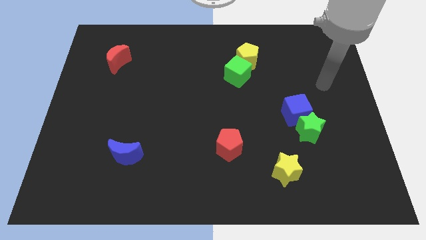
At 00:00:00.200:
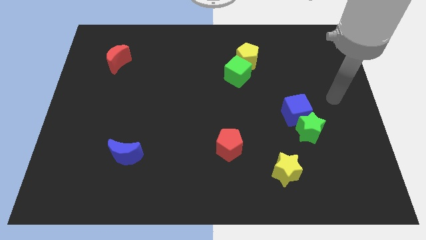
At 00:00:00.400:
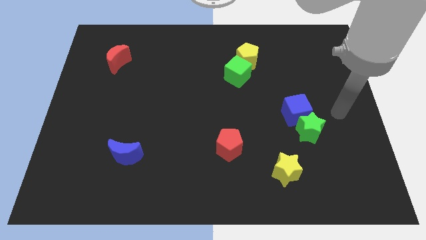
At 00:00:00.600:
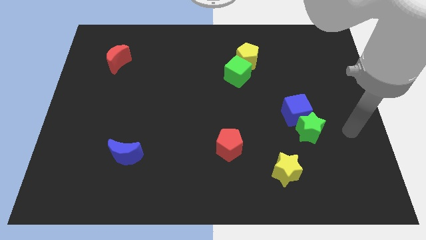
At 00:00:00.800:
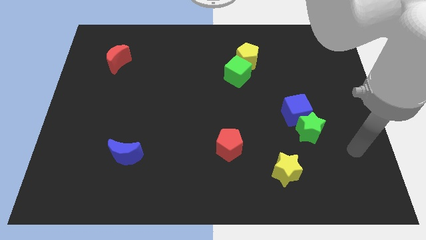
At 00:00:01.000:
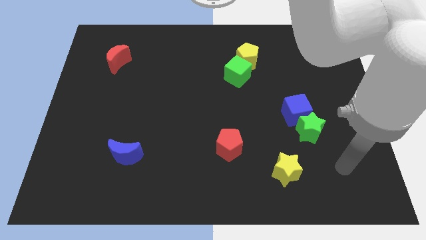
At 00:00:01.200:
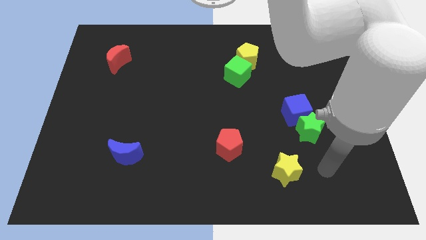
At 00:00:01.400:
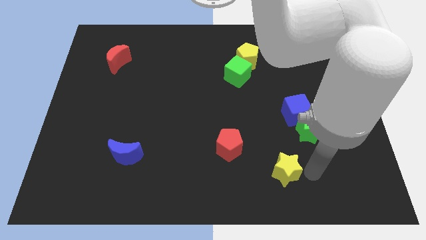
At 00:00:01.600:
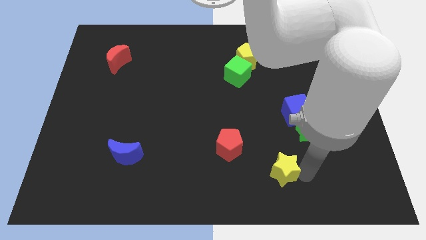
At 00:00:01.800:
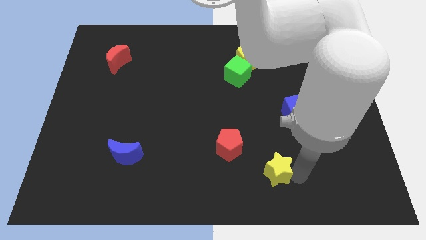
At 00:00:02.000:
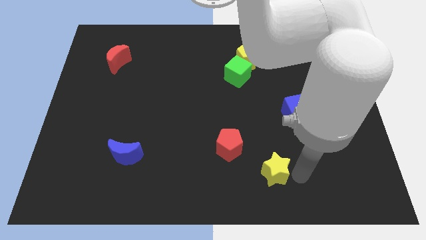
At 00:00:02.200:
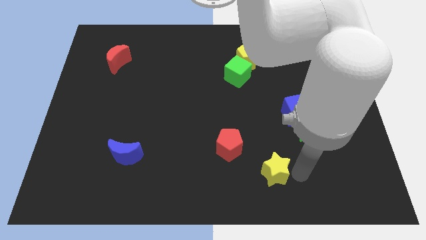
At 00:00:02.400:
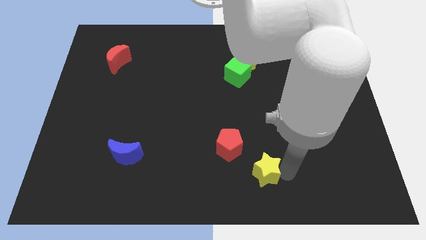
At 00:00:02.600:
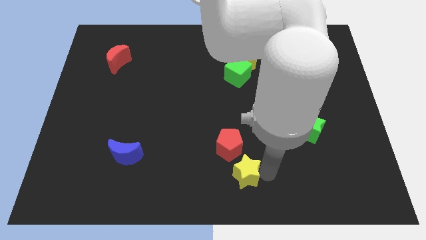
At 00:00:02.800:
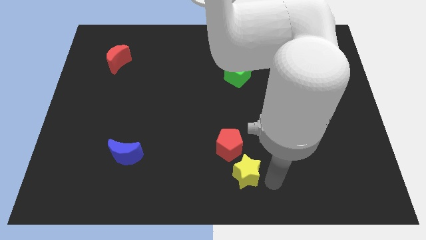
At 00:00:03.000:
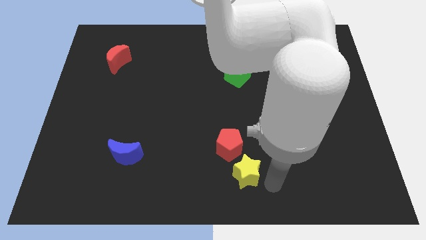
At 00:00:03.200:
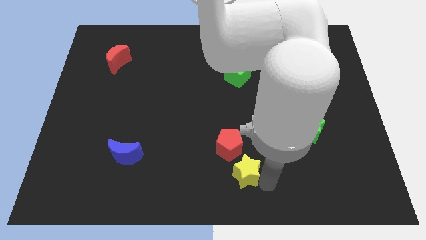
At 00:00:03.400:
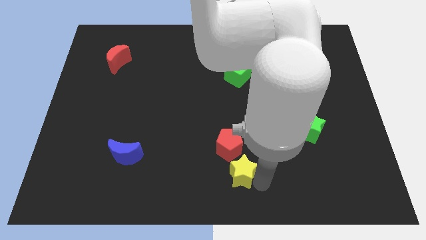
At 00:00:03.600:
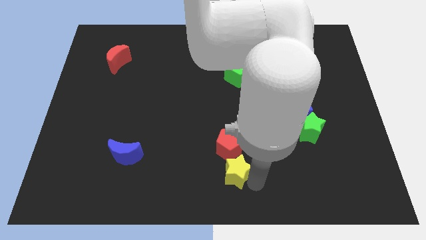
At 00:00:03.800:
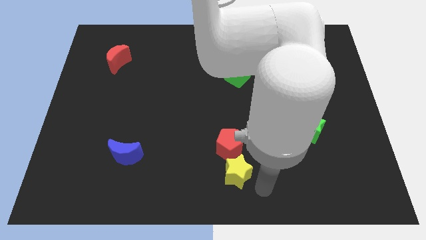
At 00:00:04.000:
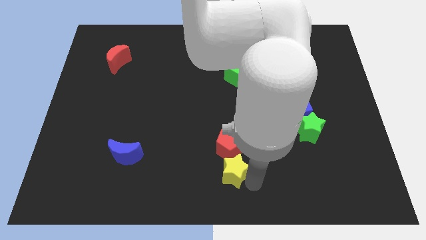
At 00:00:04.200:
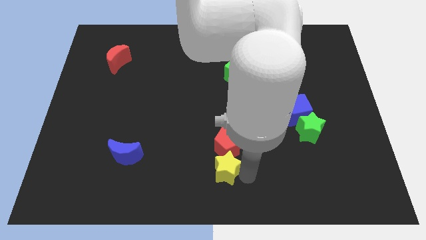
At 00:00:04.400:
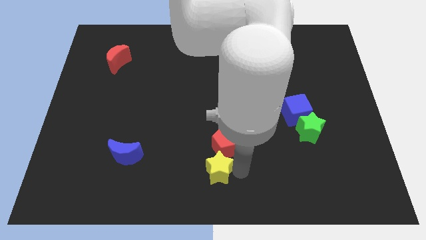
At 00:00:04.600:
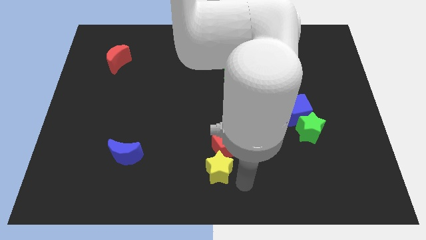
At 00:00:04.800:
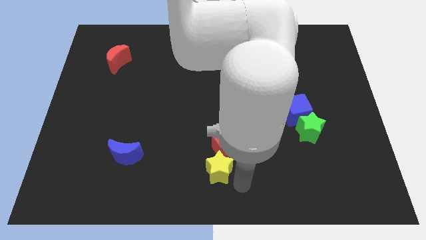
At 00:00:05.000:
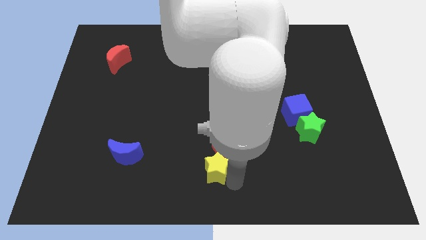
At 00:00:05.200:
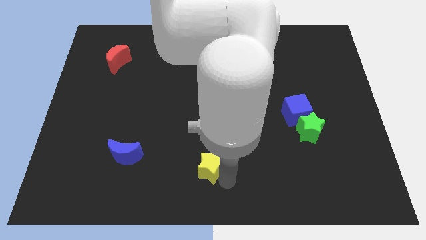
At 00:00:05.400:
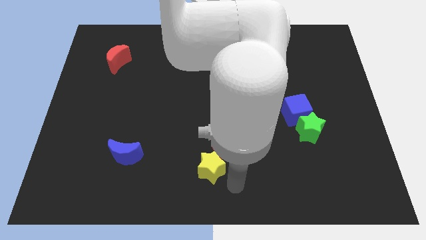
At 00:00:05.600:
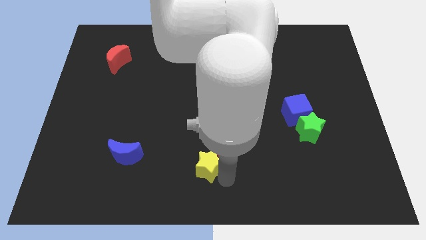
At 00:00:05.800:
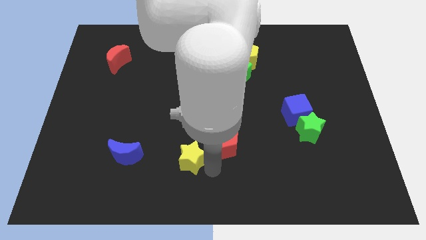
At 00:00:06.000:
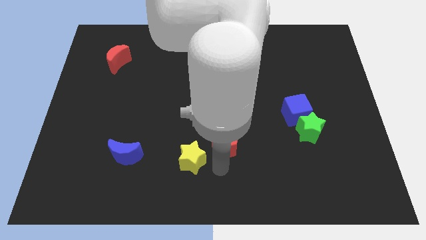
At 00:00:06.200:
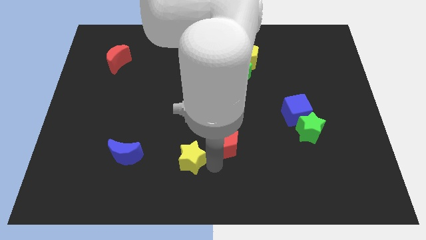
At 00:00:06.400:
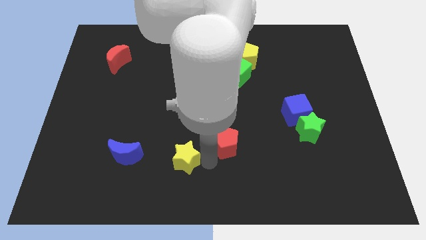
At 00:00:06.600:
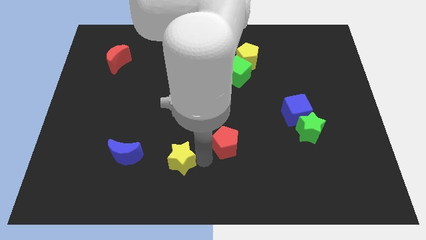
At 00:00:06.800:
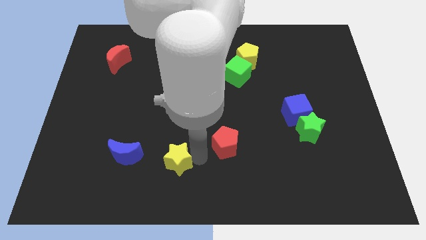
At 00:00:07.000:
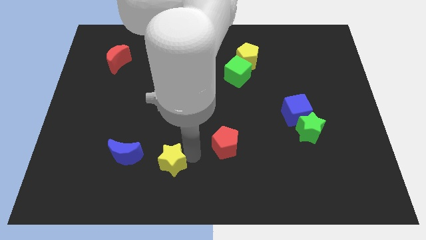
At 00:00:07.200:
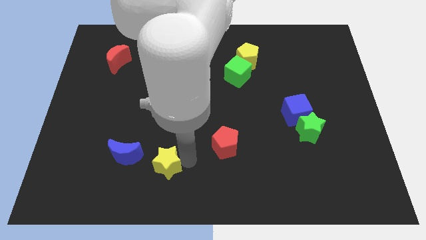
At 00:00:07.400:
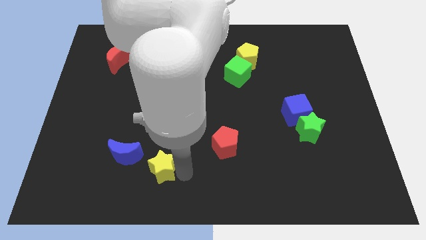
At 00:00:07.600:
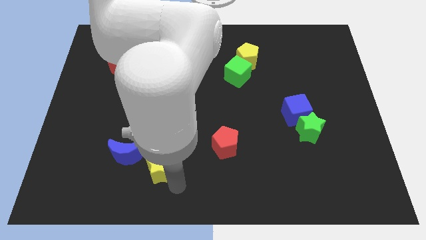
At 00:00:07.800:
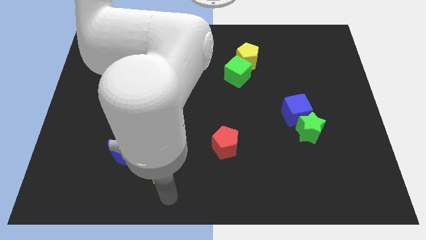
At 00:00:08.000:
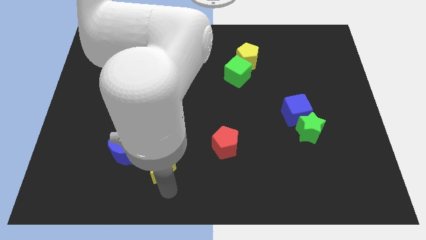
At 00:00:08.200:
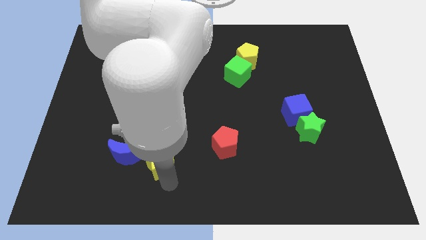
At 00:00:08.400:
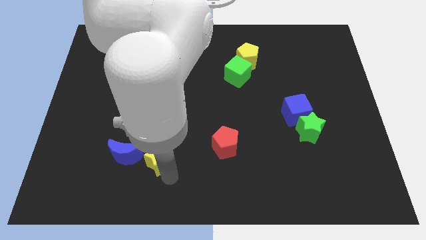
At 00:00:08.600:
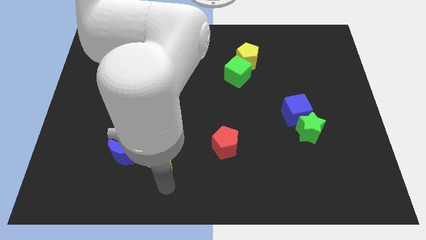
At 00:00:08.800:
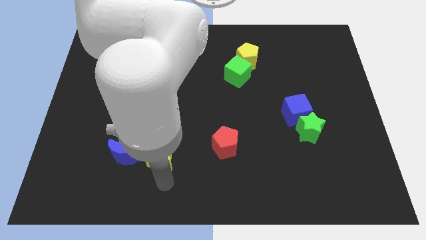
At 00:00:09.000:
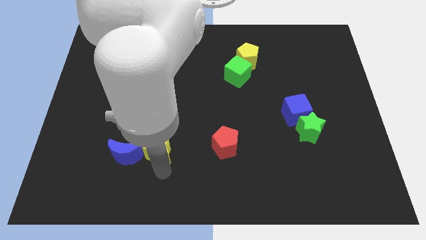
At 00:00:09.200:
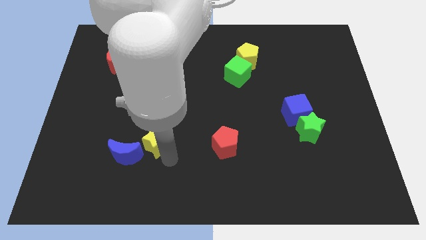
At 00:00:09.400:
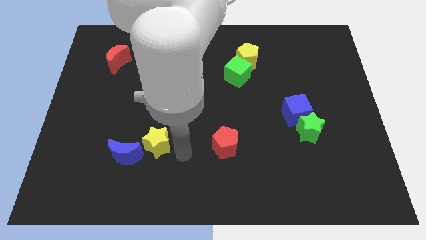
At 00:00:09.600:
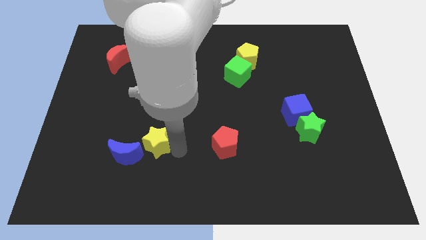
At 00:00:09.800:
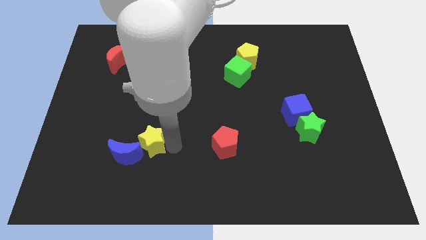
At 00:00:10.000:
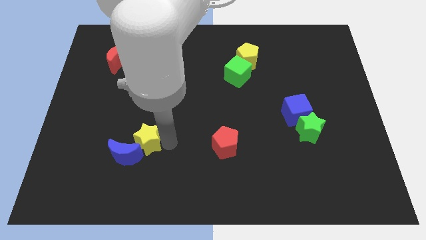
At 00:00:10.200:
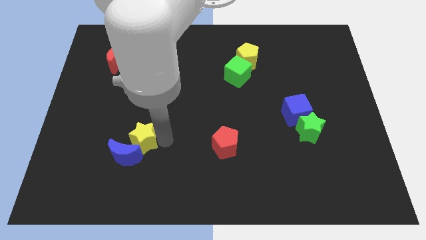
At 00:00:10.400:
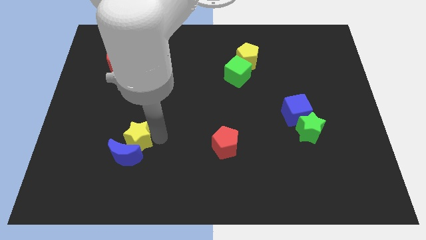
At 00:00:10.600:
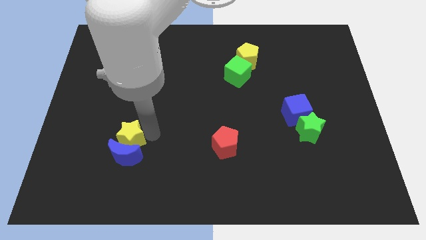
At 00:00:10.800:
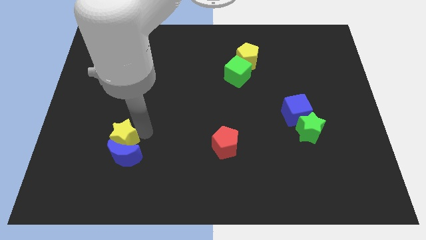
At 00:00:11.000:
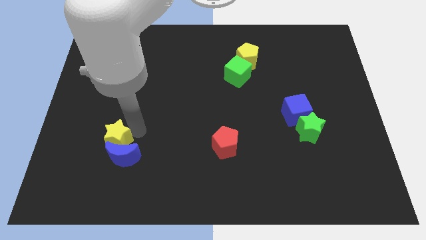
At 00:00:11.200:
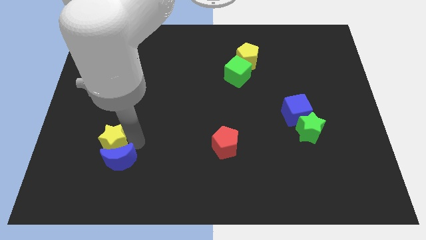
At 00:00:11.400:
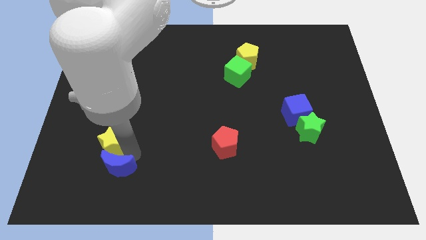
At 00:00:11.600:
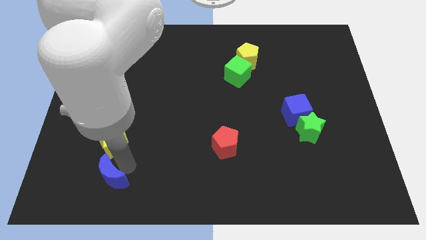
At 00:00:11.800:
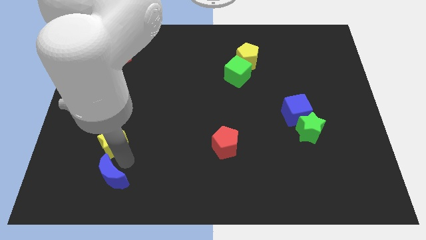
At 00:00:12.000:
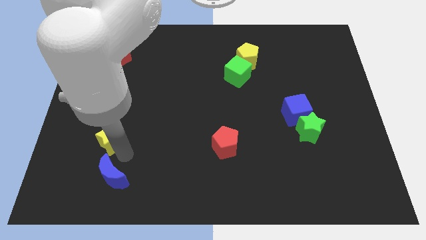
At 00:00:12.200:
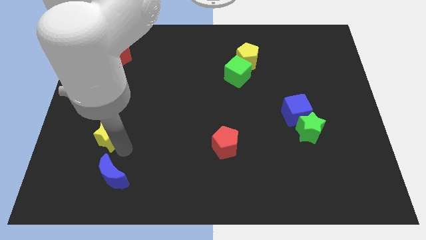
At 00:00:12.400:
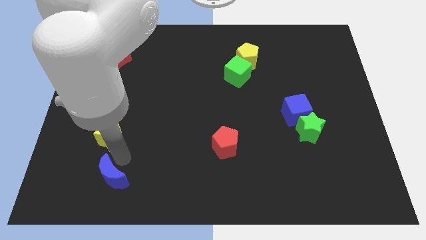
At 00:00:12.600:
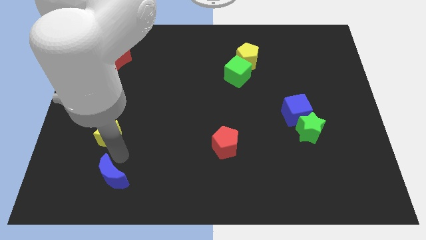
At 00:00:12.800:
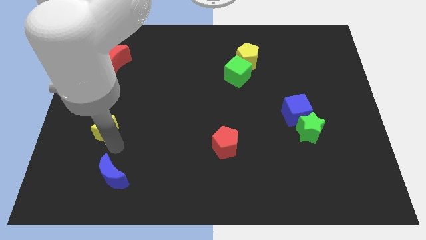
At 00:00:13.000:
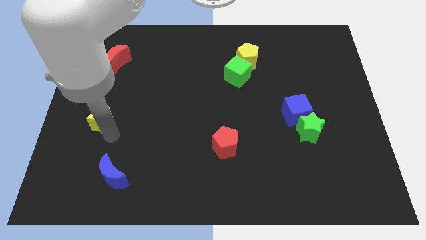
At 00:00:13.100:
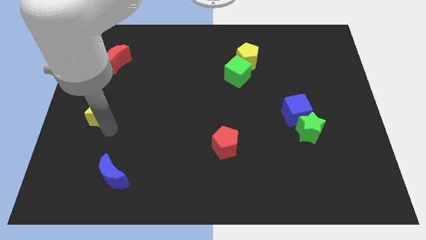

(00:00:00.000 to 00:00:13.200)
push the yellow star to the left side
